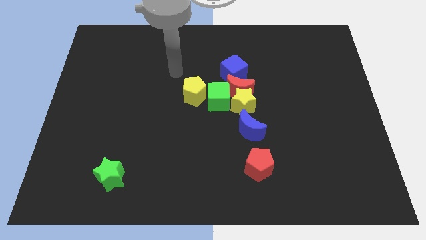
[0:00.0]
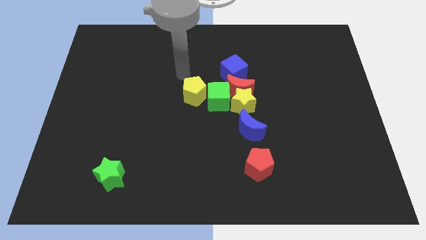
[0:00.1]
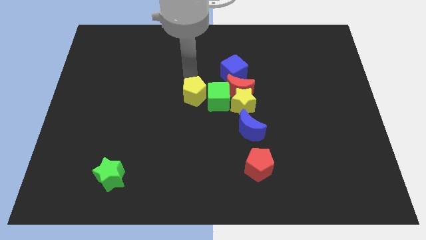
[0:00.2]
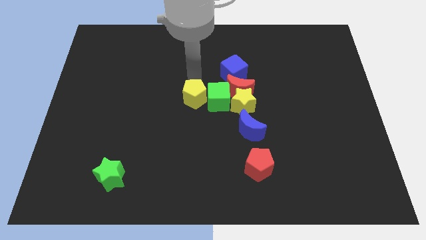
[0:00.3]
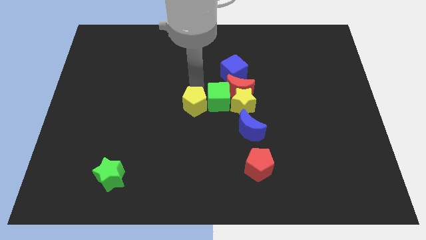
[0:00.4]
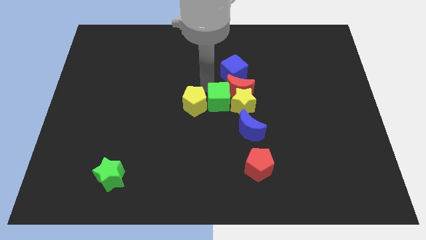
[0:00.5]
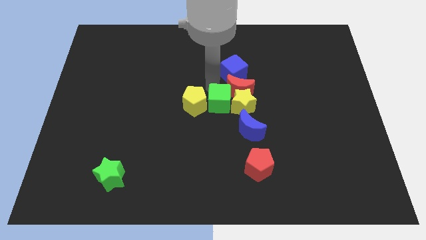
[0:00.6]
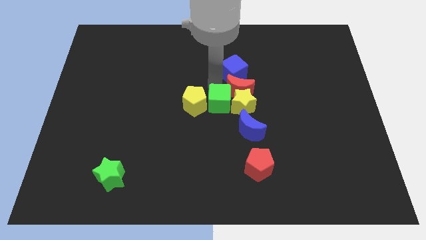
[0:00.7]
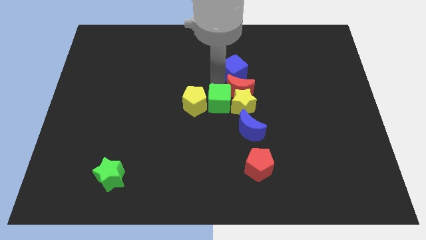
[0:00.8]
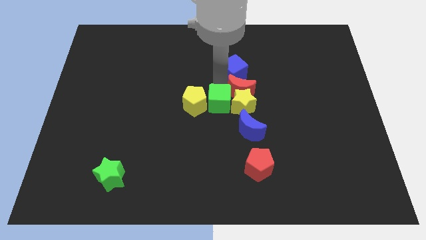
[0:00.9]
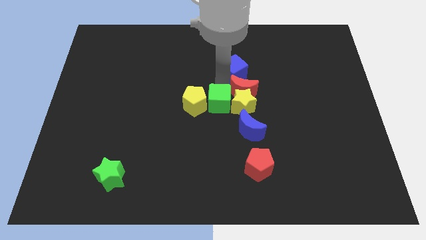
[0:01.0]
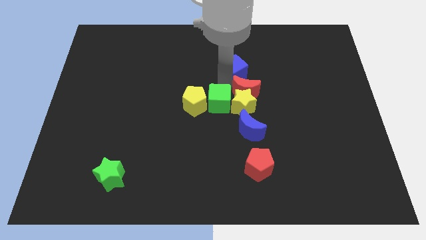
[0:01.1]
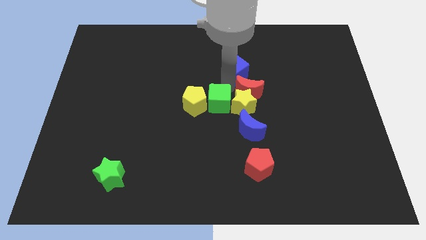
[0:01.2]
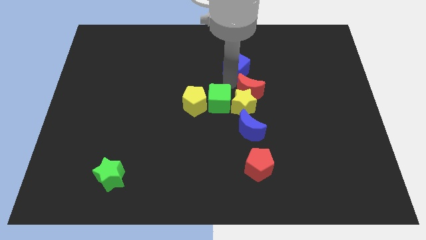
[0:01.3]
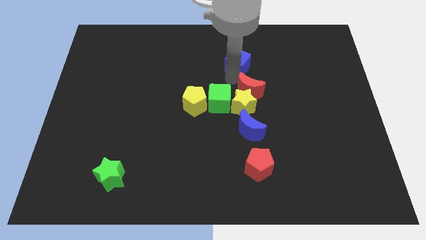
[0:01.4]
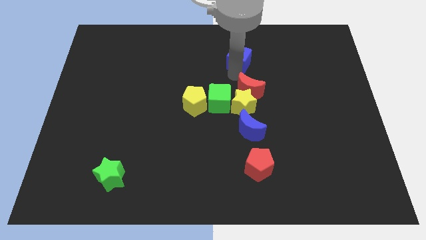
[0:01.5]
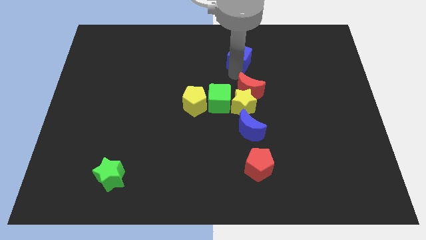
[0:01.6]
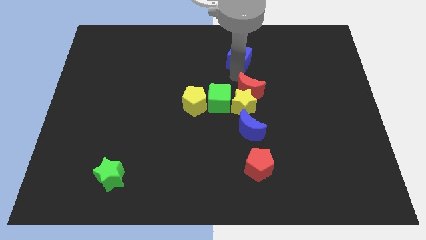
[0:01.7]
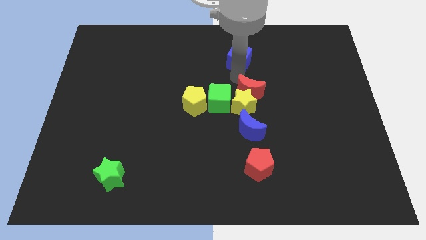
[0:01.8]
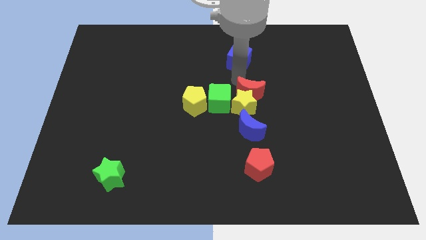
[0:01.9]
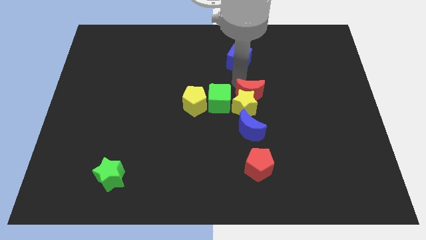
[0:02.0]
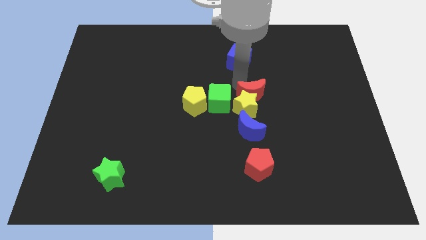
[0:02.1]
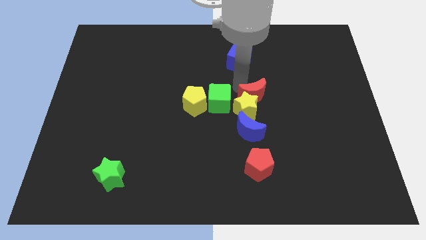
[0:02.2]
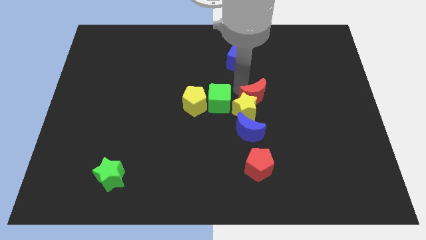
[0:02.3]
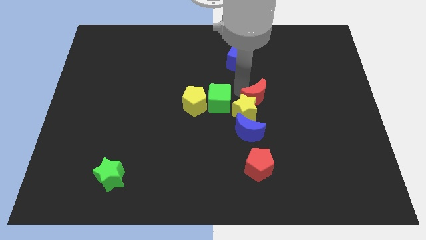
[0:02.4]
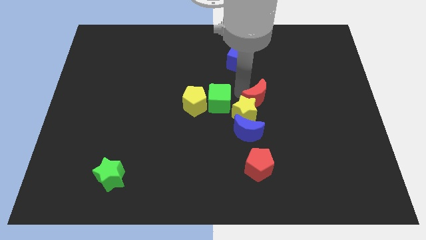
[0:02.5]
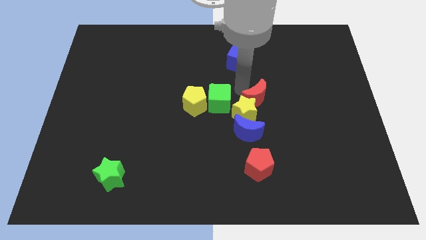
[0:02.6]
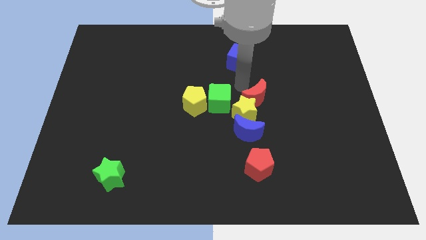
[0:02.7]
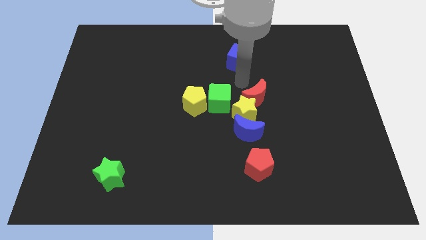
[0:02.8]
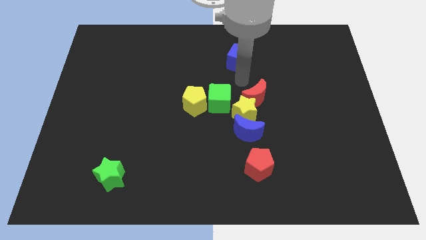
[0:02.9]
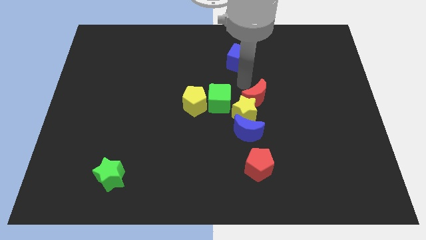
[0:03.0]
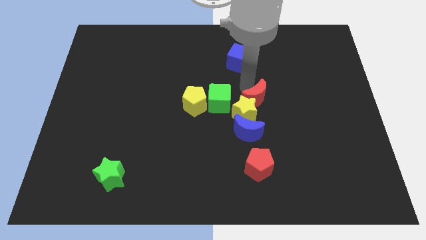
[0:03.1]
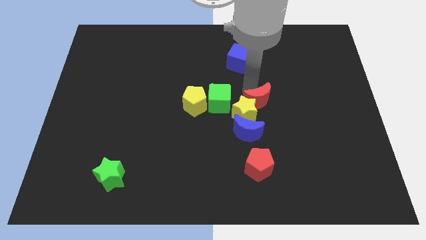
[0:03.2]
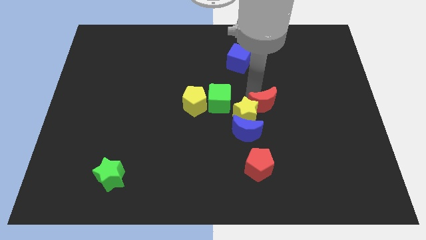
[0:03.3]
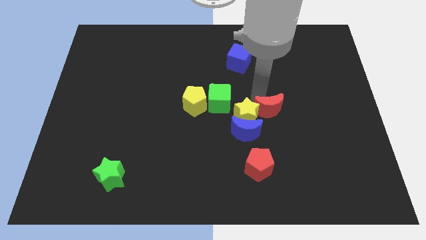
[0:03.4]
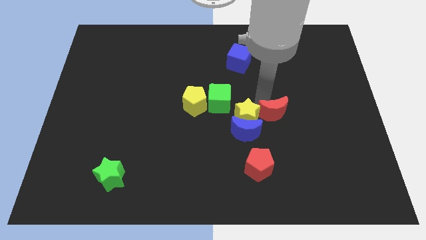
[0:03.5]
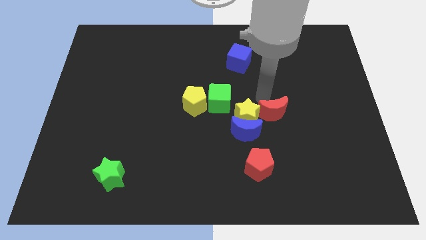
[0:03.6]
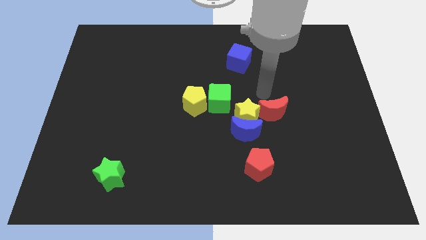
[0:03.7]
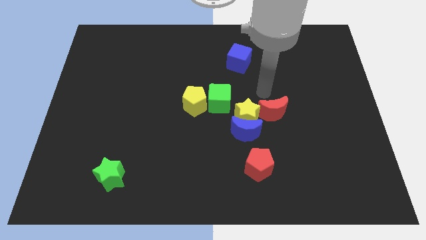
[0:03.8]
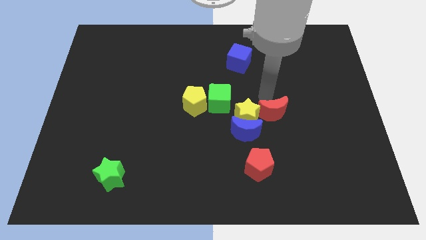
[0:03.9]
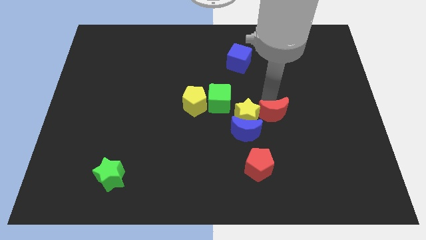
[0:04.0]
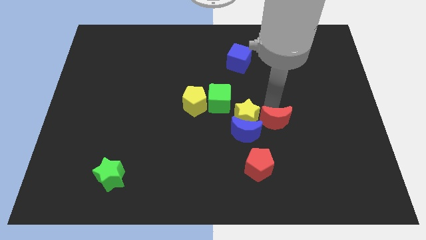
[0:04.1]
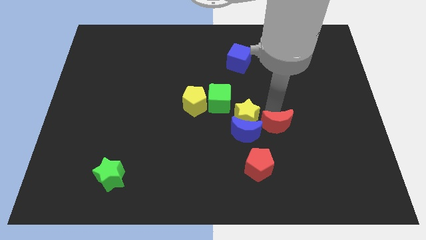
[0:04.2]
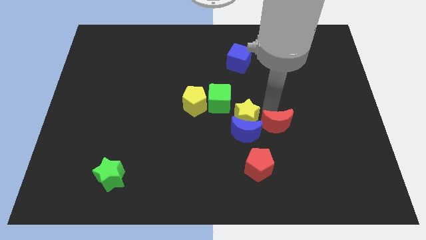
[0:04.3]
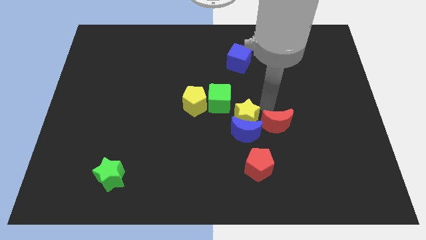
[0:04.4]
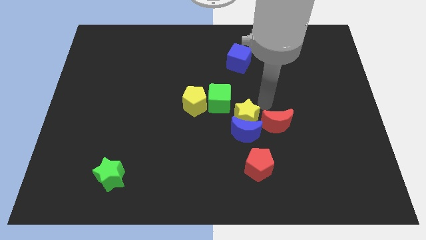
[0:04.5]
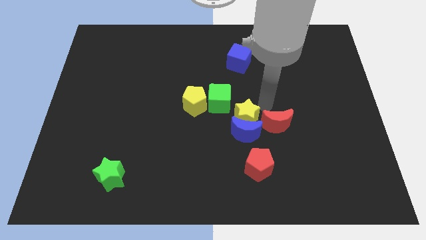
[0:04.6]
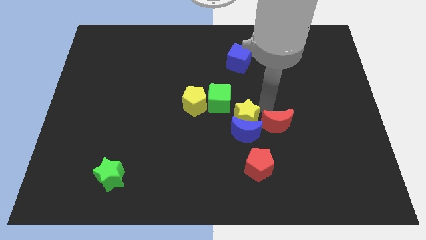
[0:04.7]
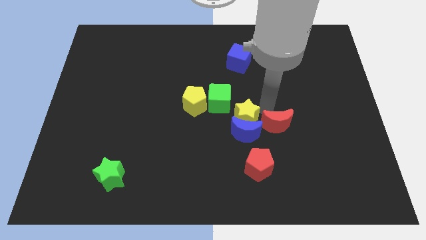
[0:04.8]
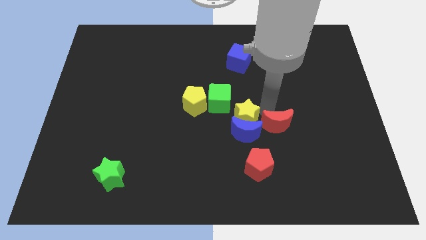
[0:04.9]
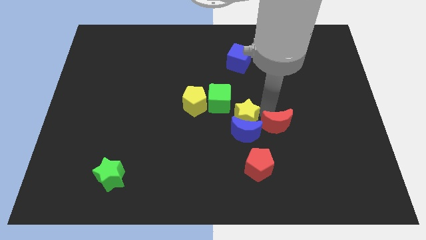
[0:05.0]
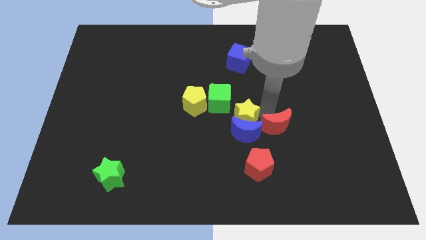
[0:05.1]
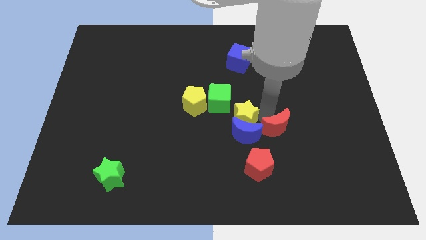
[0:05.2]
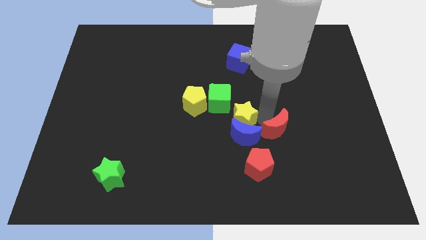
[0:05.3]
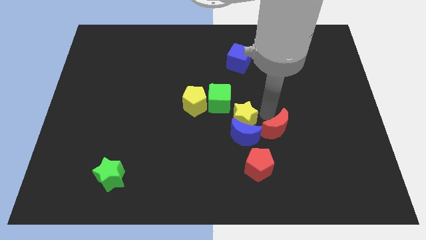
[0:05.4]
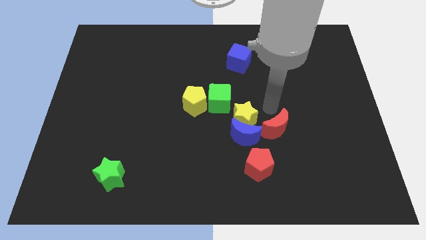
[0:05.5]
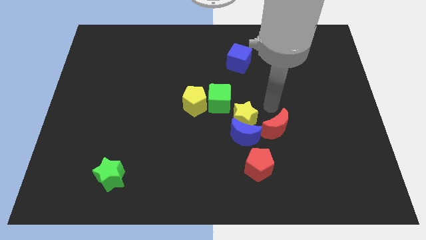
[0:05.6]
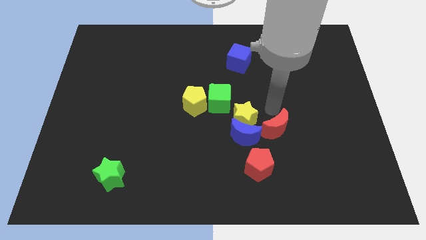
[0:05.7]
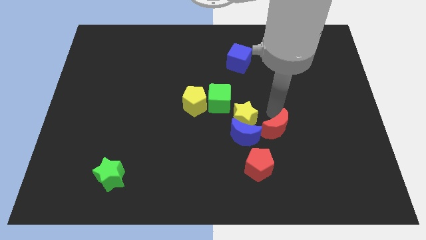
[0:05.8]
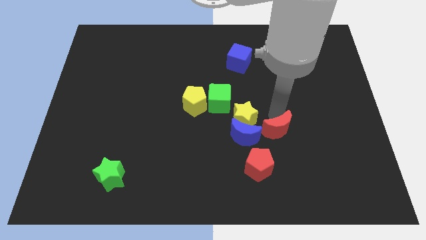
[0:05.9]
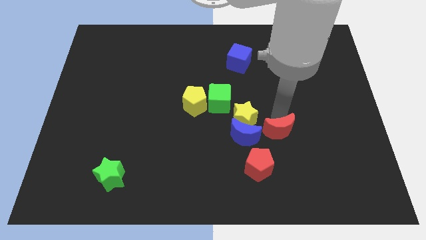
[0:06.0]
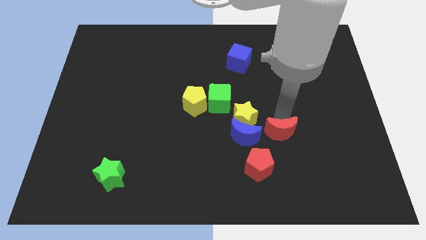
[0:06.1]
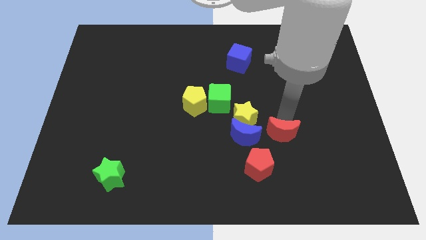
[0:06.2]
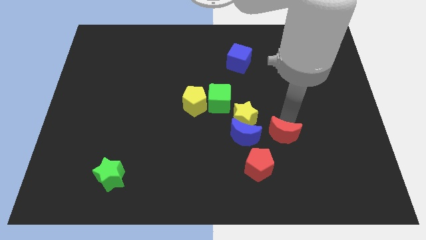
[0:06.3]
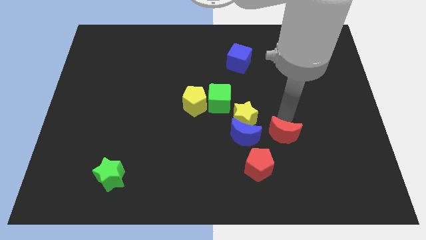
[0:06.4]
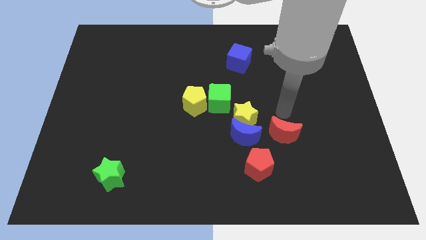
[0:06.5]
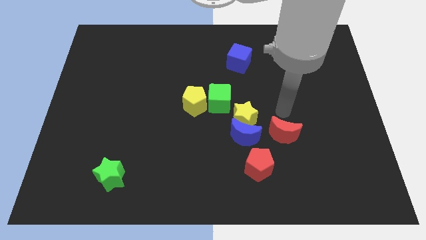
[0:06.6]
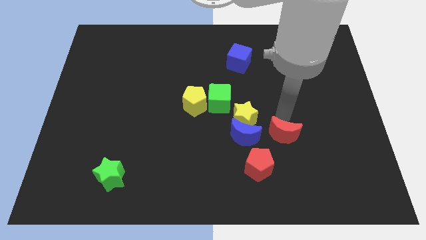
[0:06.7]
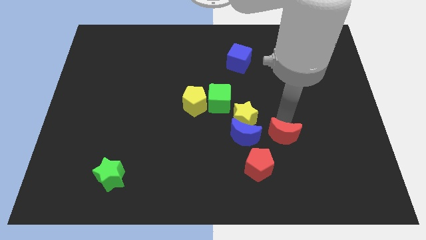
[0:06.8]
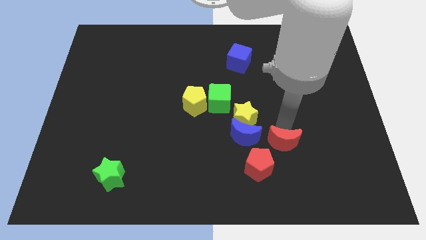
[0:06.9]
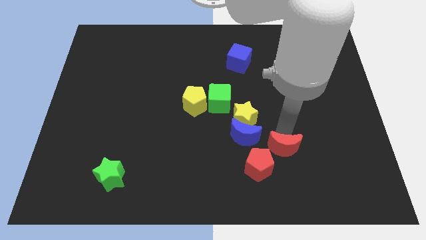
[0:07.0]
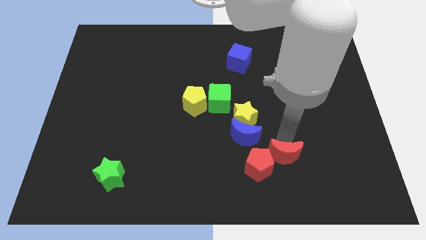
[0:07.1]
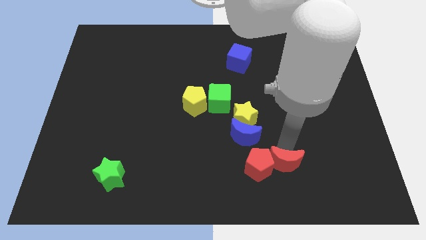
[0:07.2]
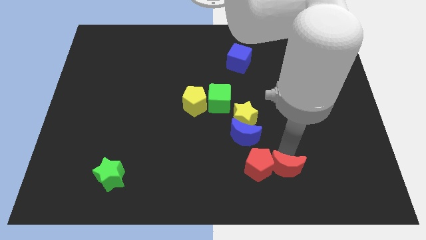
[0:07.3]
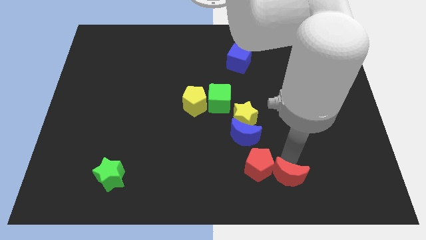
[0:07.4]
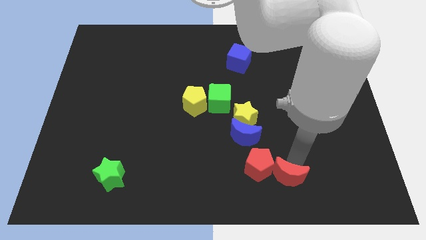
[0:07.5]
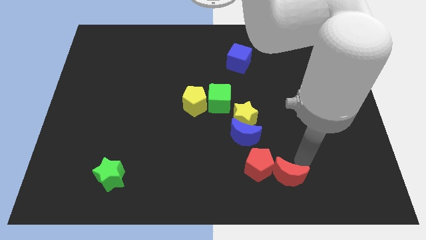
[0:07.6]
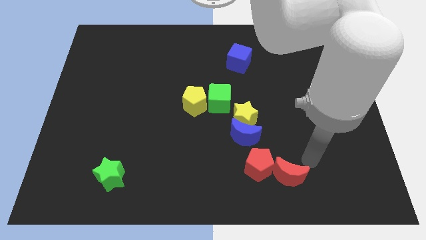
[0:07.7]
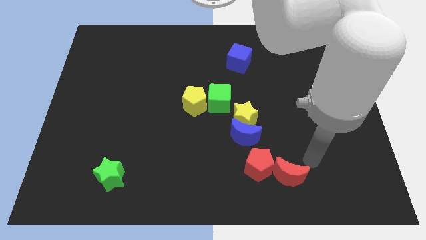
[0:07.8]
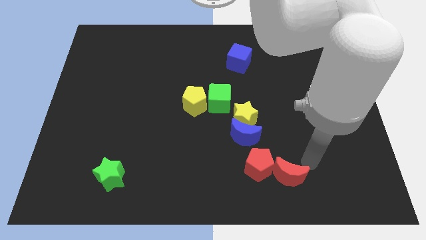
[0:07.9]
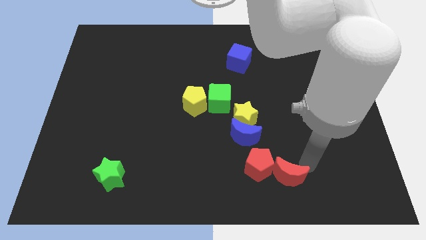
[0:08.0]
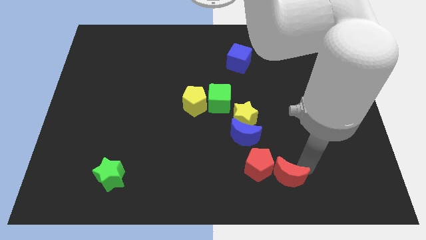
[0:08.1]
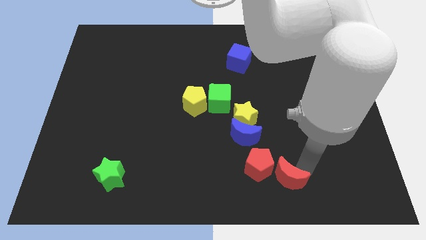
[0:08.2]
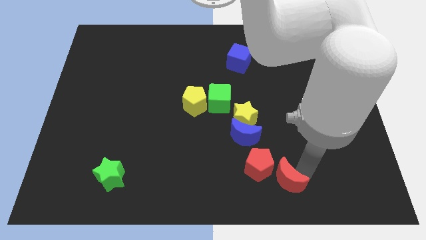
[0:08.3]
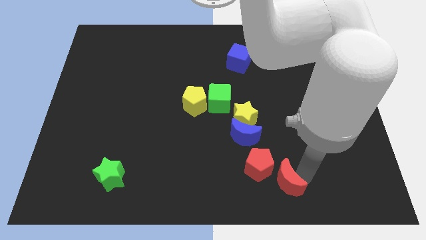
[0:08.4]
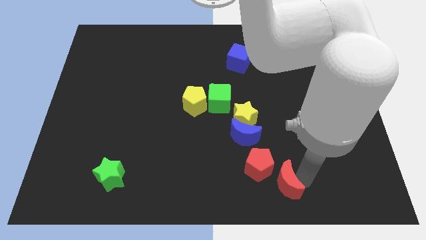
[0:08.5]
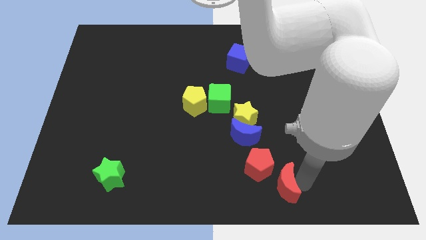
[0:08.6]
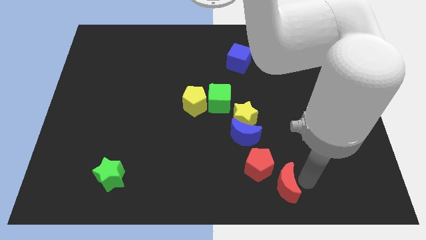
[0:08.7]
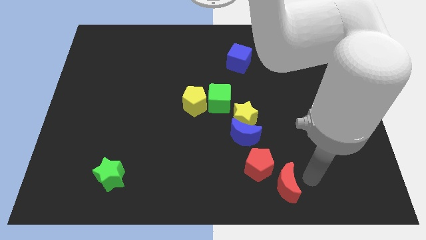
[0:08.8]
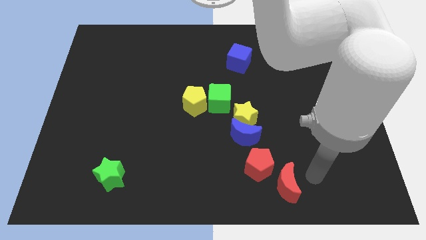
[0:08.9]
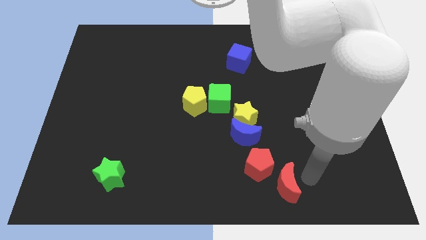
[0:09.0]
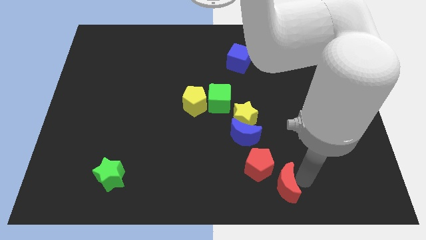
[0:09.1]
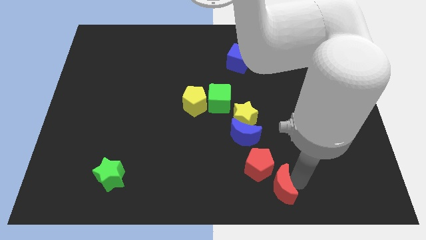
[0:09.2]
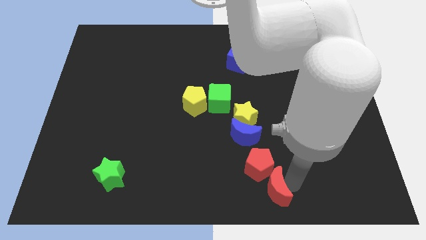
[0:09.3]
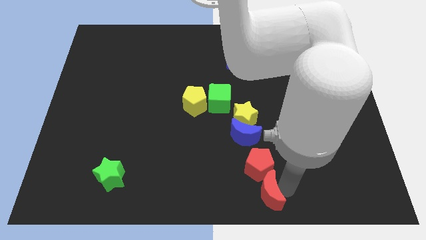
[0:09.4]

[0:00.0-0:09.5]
move the red moon below the blue moon
